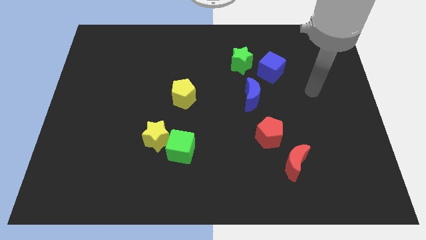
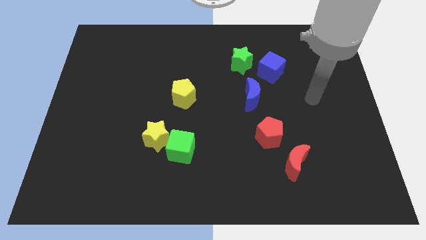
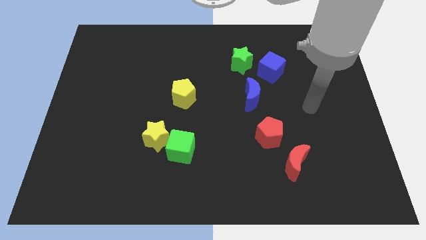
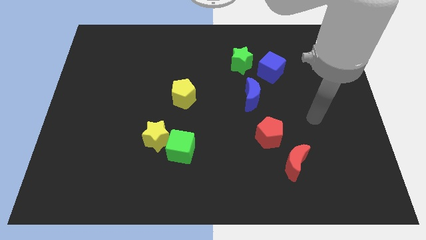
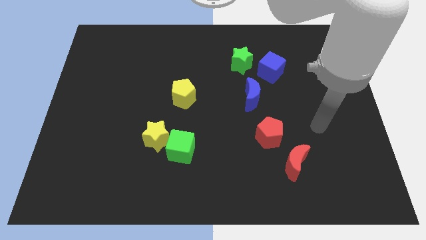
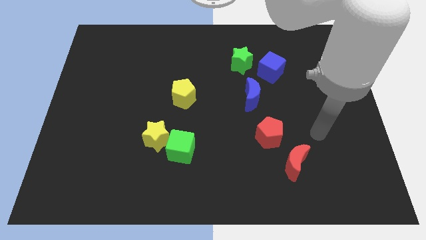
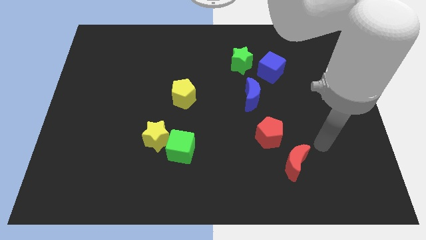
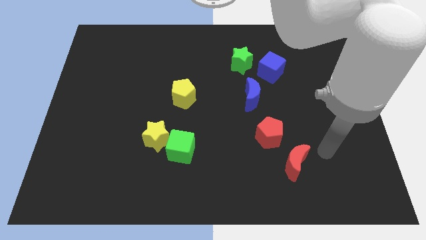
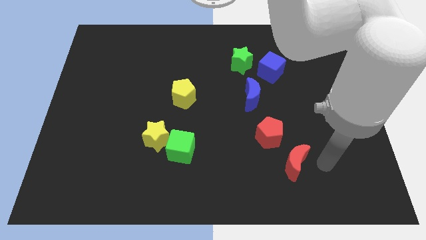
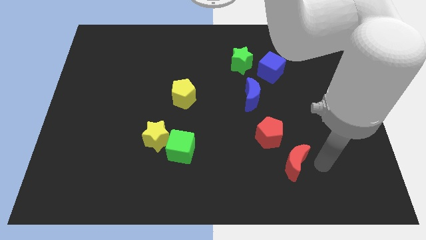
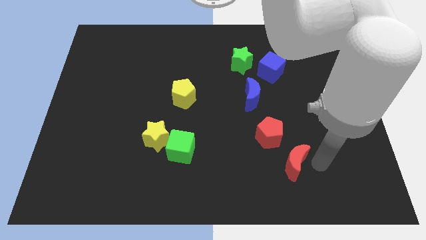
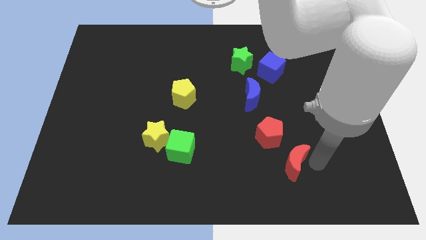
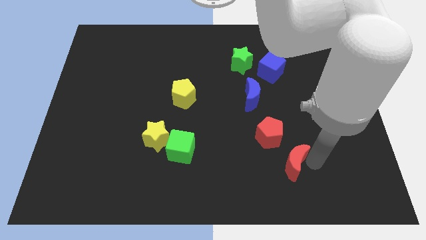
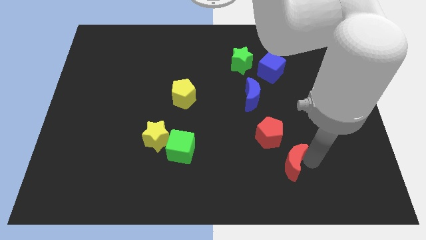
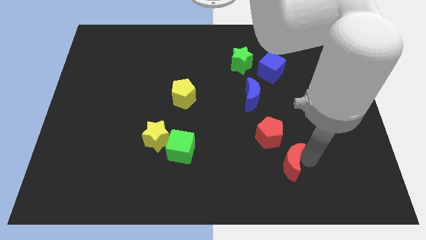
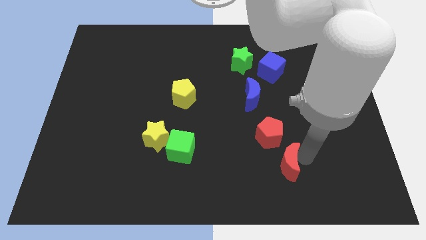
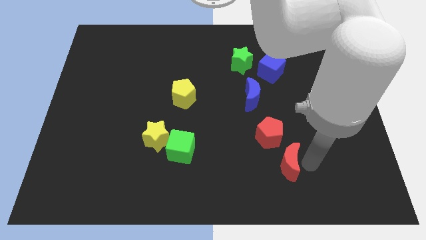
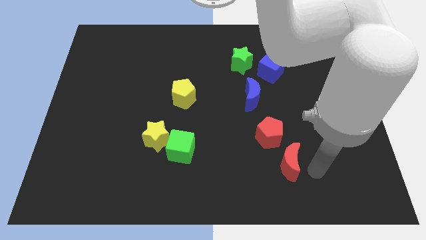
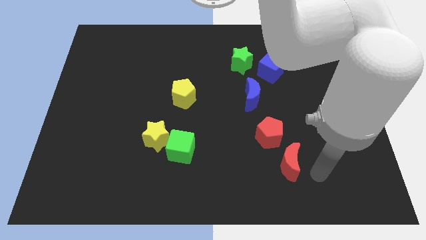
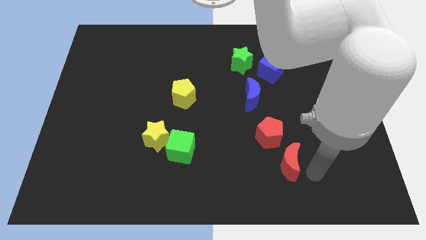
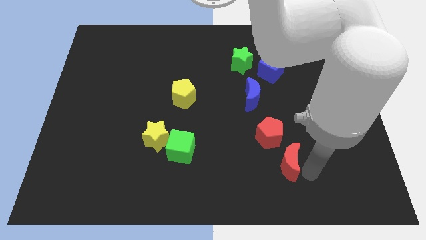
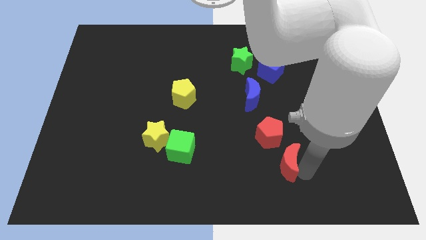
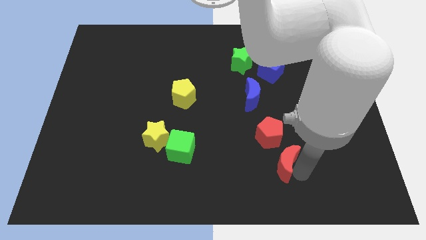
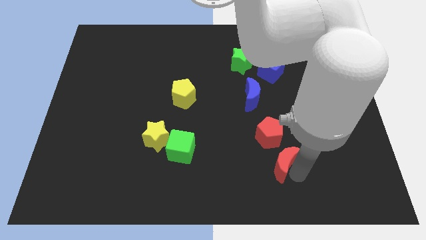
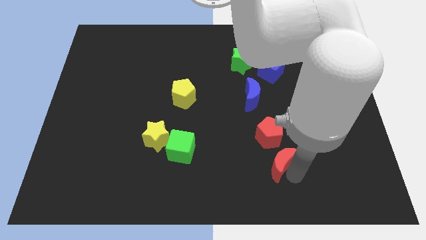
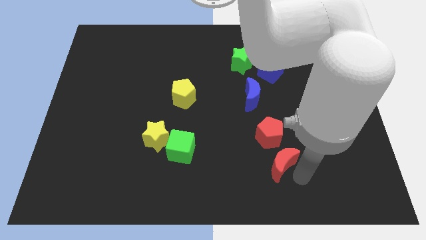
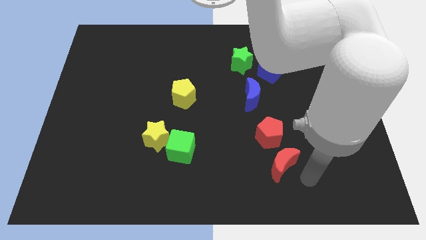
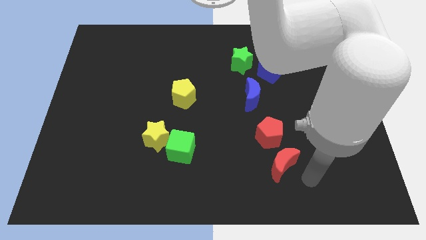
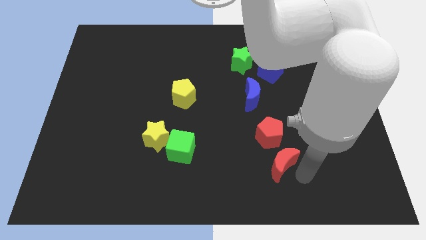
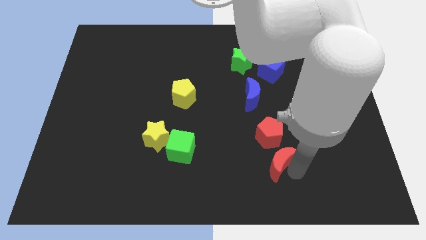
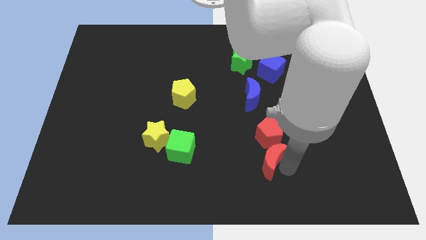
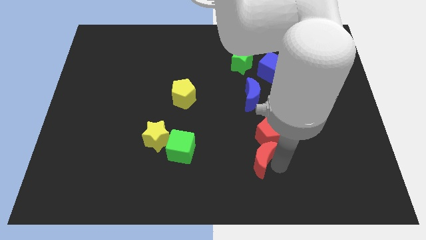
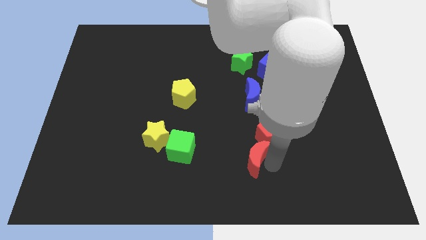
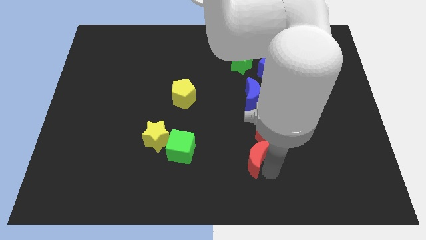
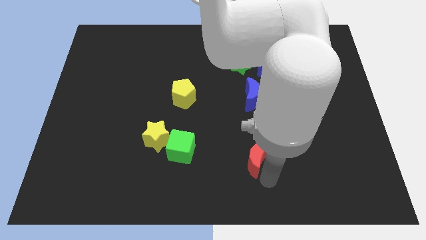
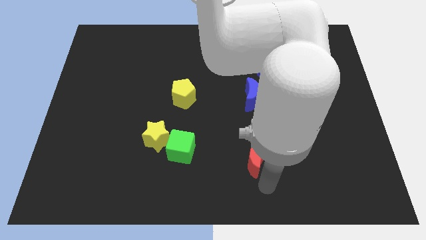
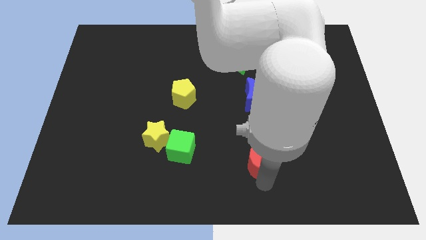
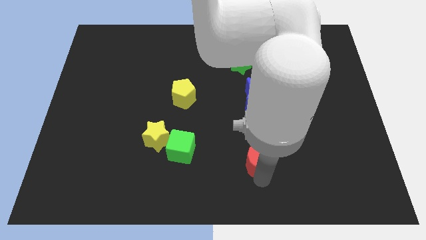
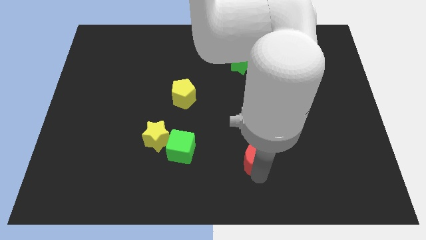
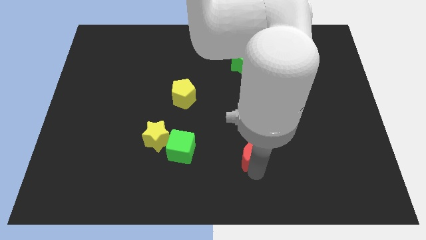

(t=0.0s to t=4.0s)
slide the red moon up and left diagonally a little

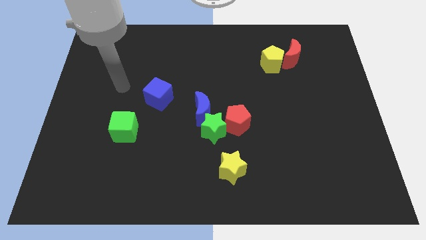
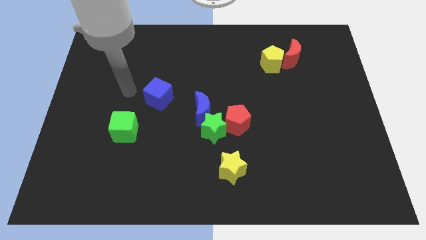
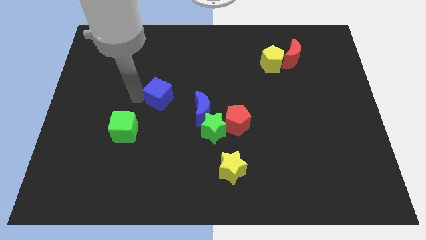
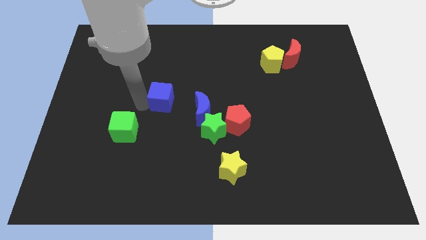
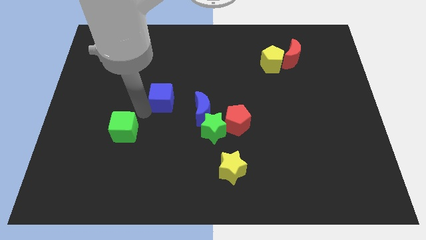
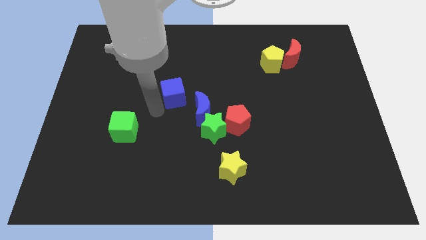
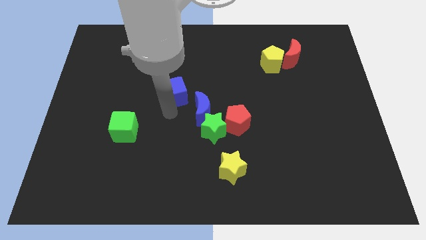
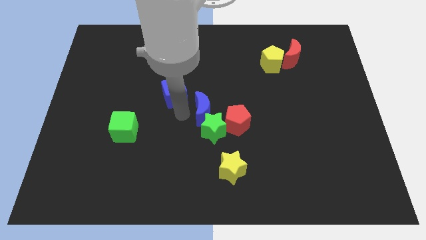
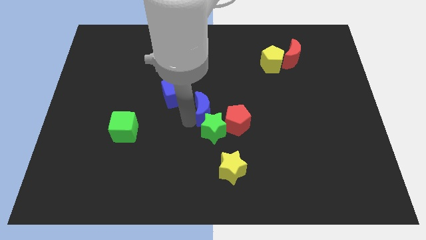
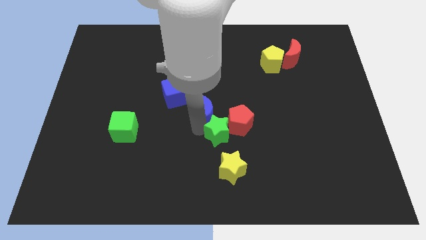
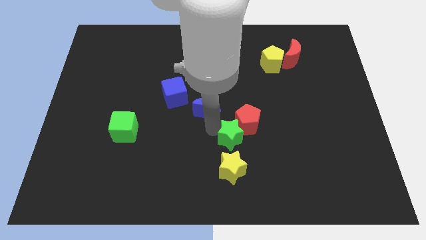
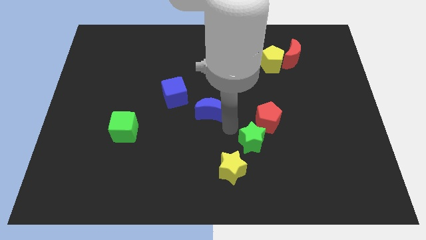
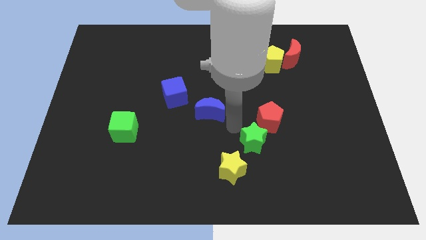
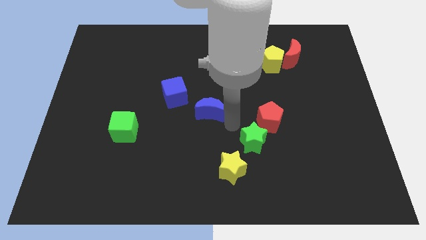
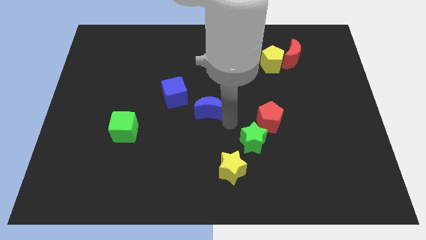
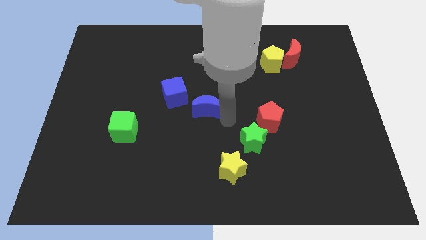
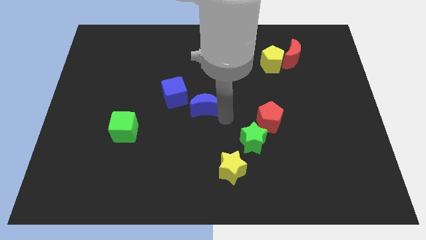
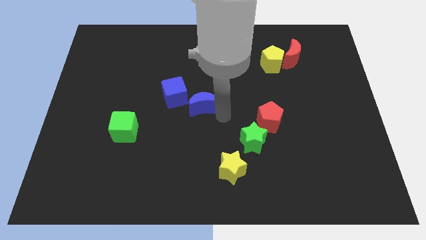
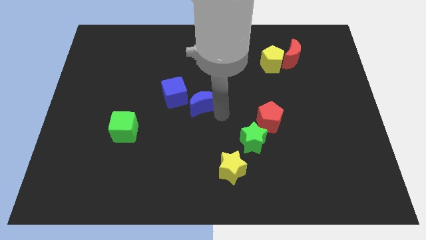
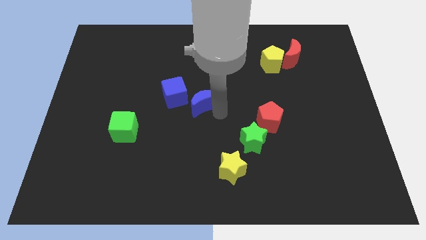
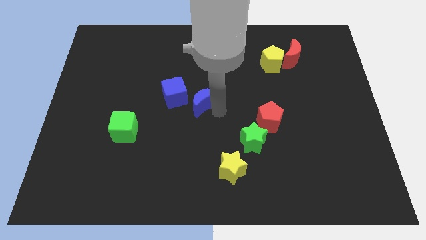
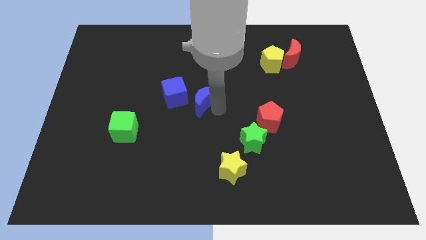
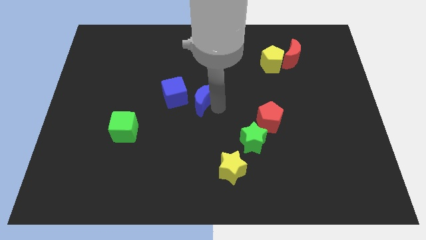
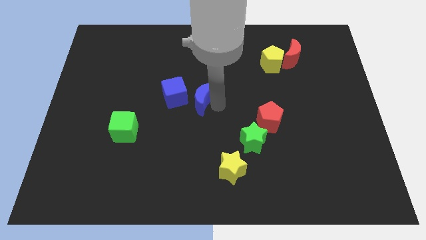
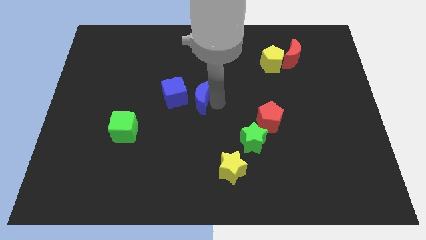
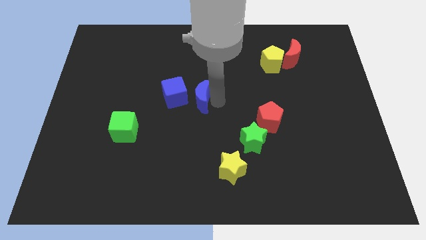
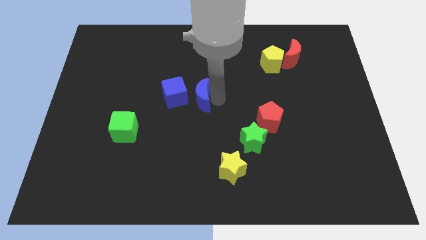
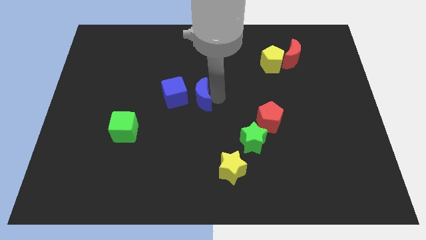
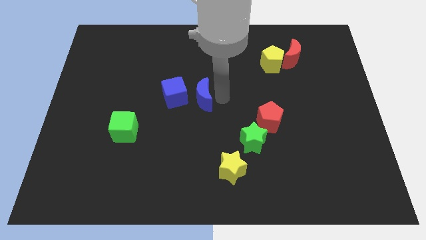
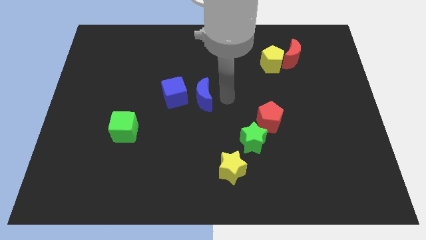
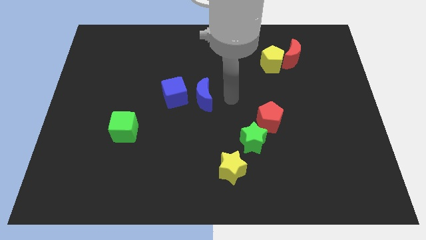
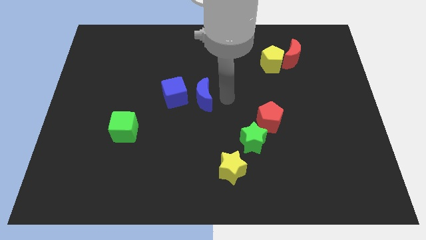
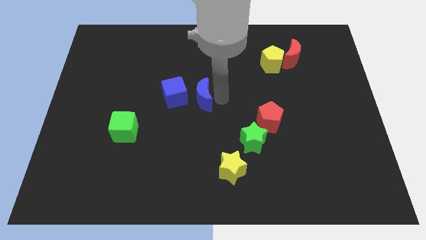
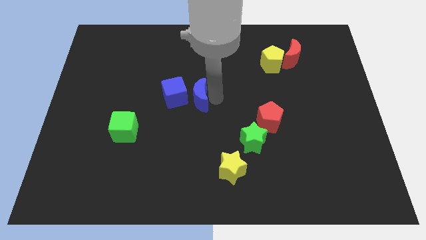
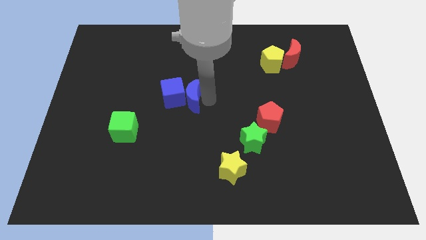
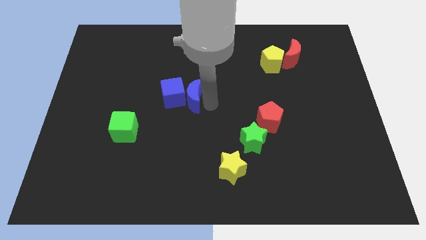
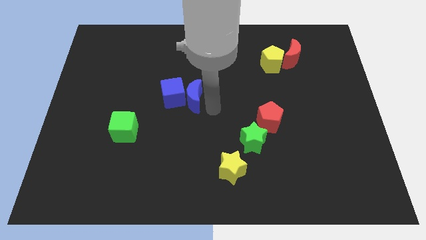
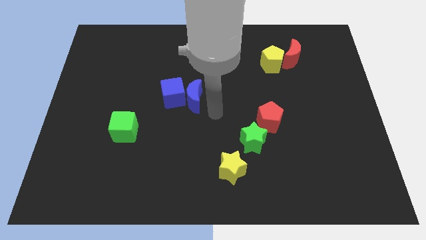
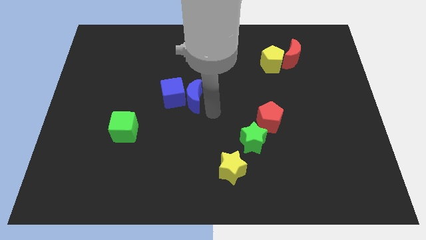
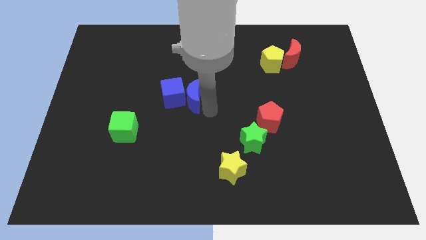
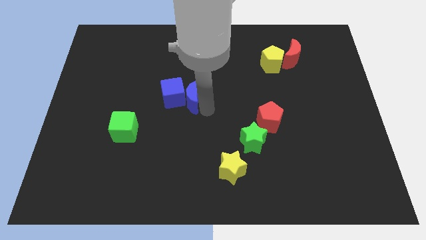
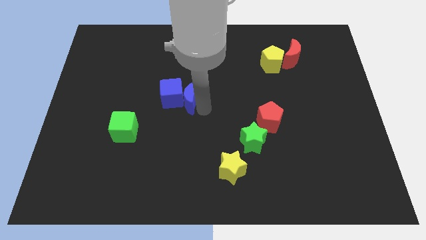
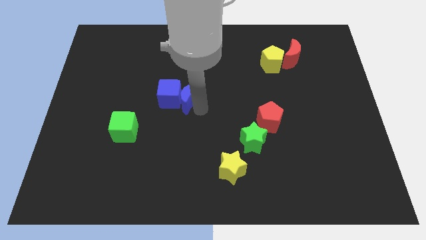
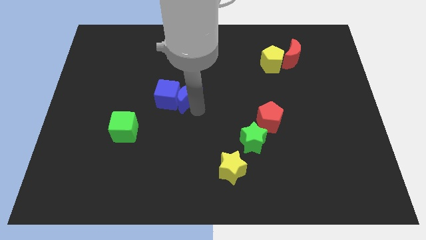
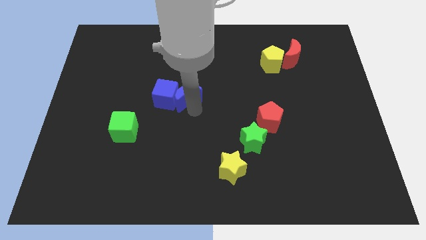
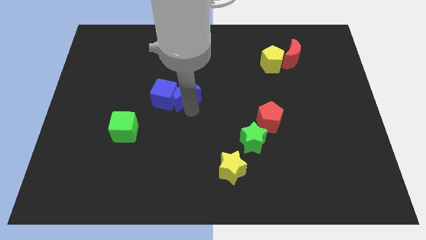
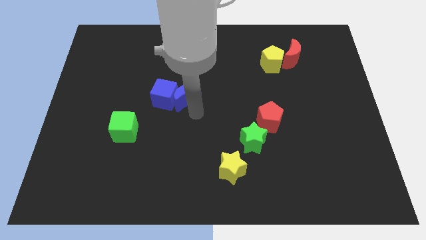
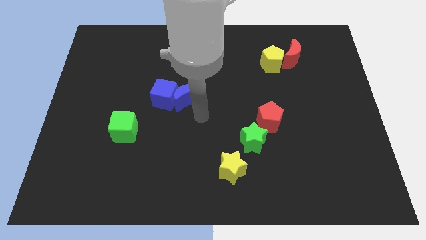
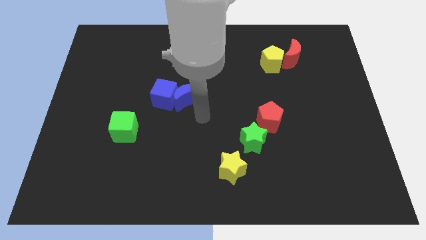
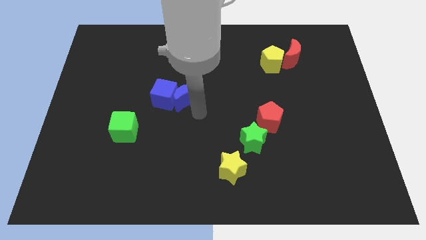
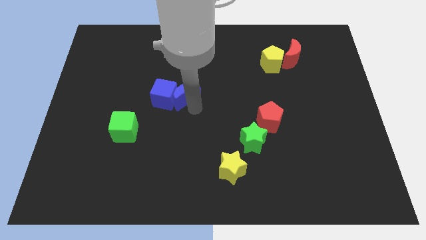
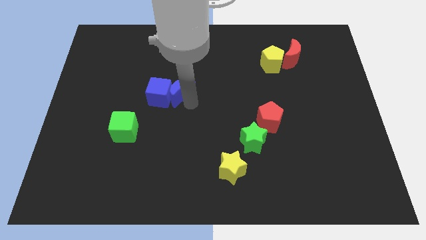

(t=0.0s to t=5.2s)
slide the blue moon somewhat up and to the left diagonally
